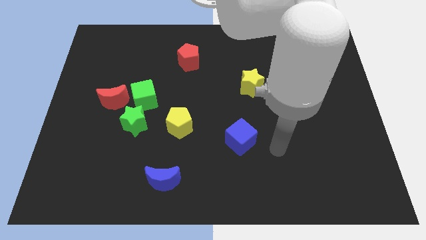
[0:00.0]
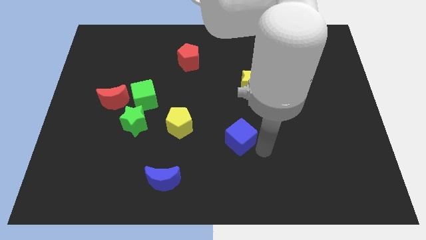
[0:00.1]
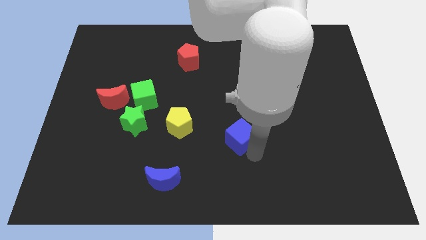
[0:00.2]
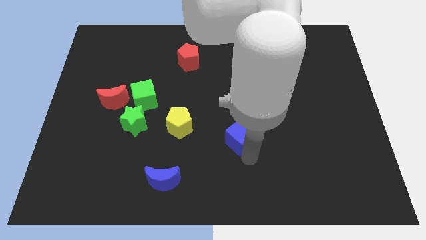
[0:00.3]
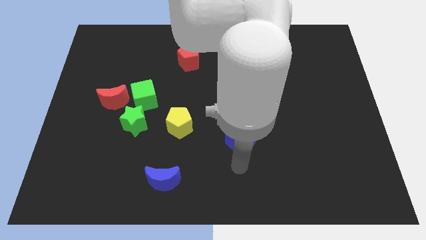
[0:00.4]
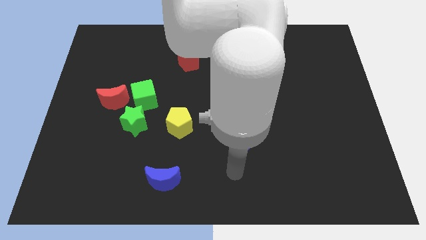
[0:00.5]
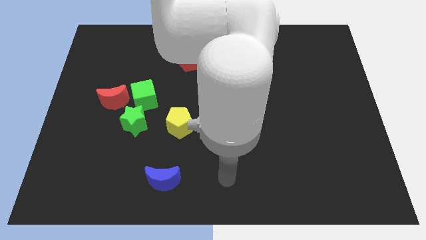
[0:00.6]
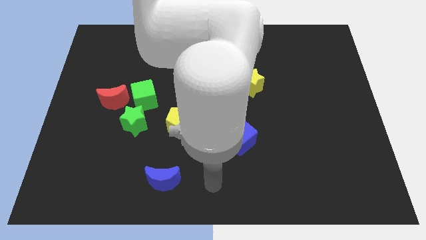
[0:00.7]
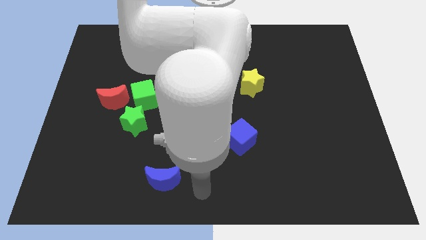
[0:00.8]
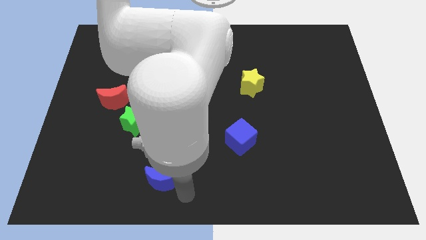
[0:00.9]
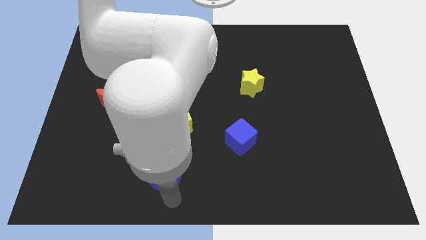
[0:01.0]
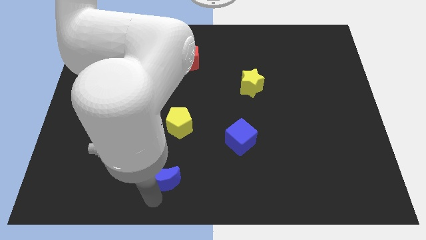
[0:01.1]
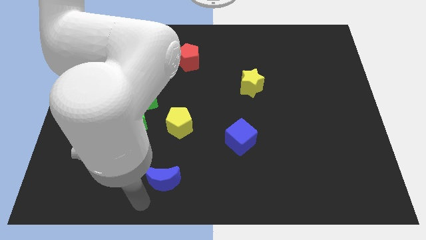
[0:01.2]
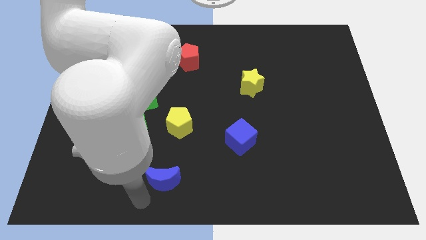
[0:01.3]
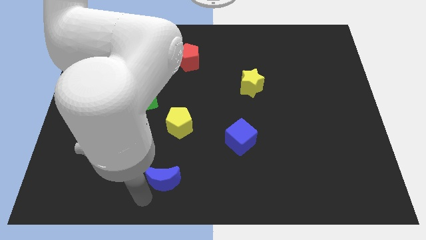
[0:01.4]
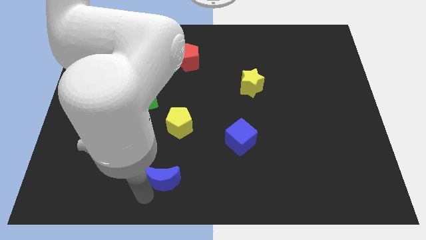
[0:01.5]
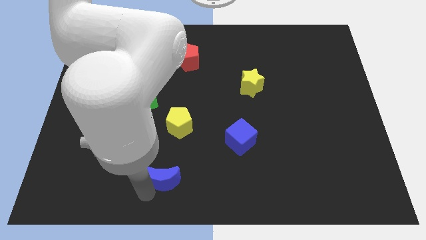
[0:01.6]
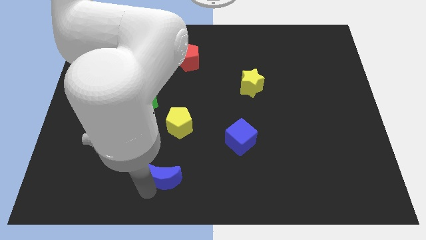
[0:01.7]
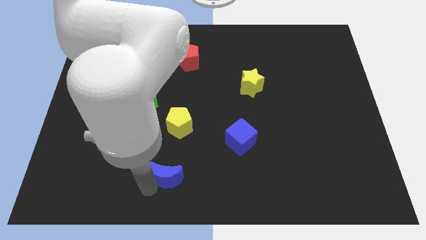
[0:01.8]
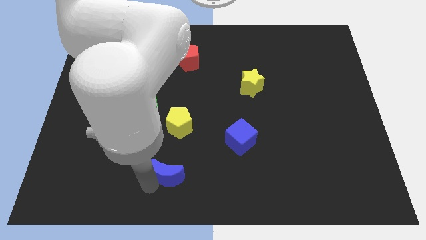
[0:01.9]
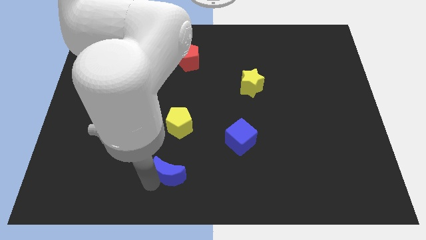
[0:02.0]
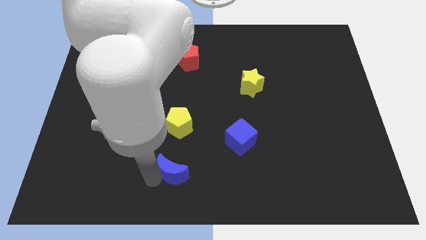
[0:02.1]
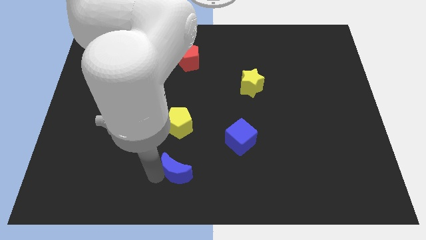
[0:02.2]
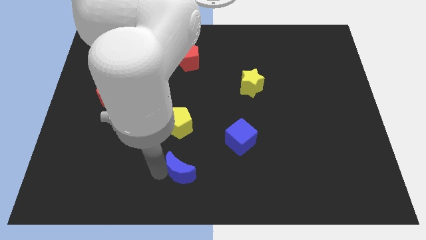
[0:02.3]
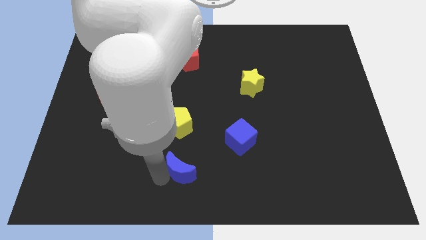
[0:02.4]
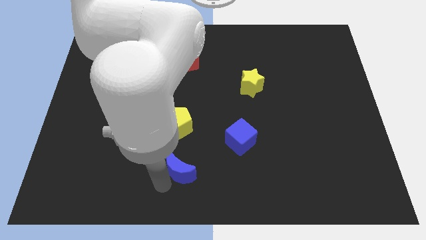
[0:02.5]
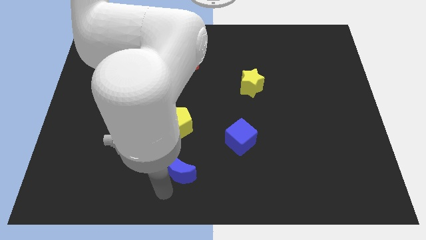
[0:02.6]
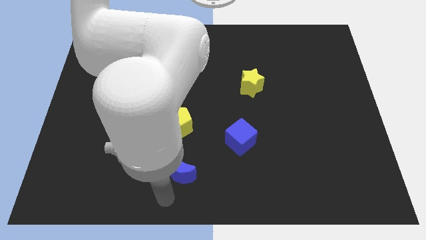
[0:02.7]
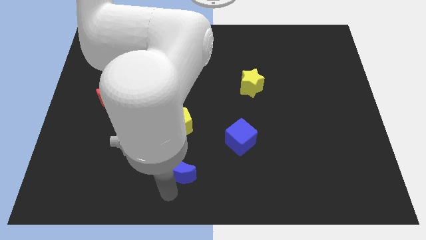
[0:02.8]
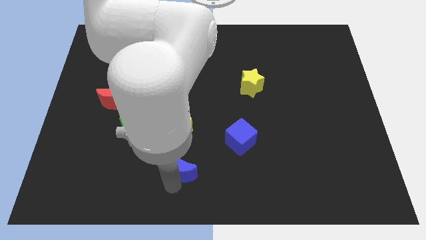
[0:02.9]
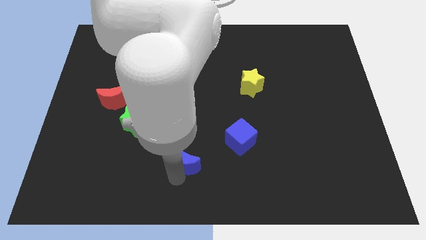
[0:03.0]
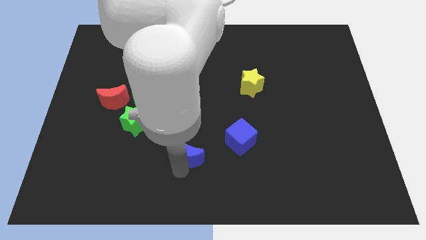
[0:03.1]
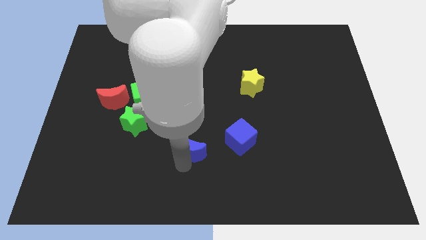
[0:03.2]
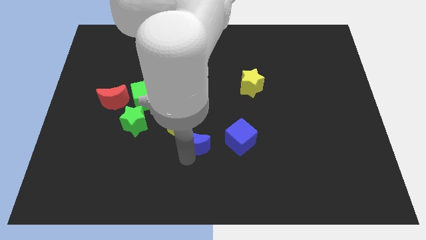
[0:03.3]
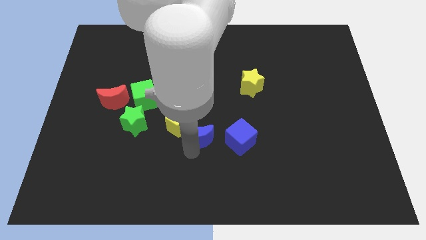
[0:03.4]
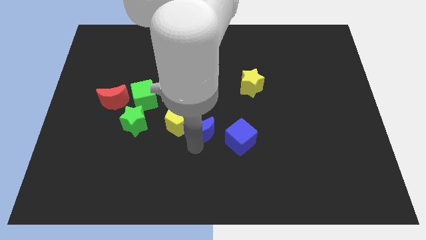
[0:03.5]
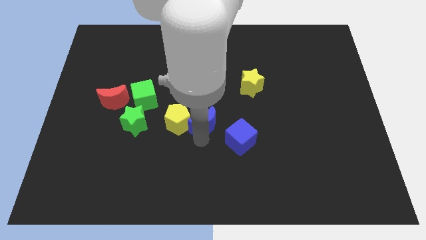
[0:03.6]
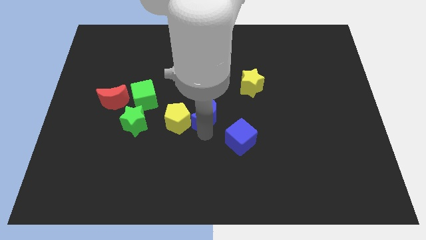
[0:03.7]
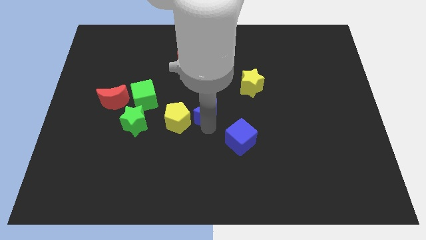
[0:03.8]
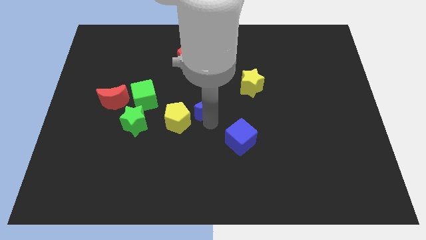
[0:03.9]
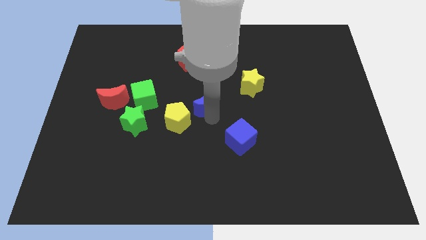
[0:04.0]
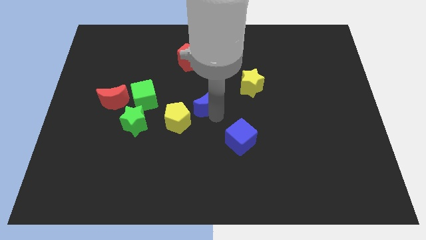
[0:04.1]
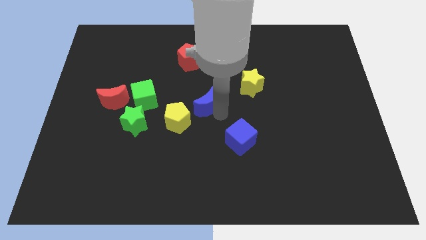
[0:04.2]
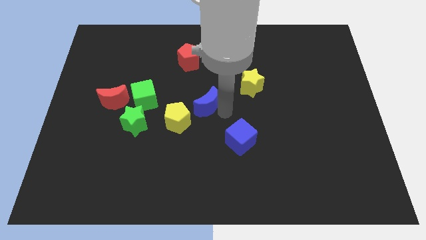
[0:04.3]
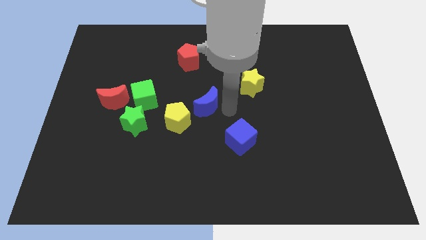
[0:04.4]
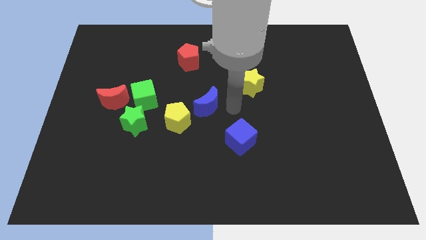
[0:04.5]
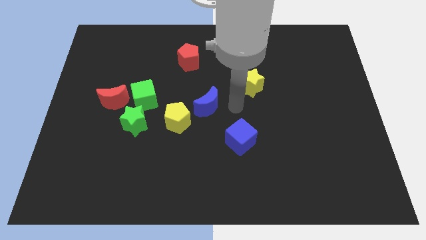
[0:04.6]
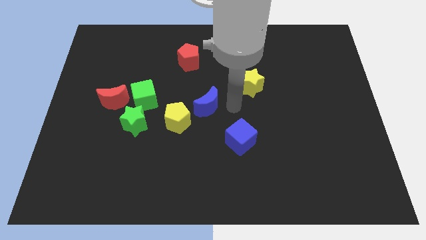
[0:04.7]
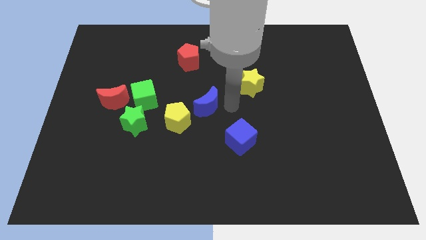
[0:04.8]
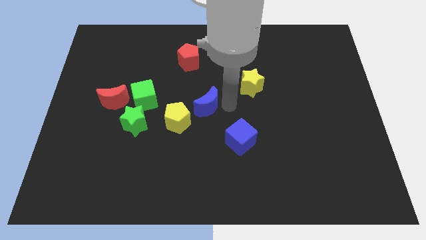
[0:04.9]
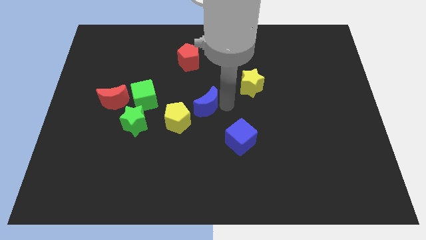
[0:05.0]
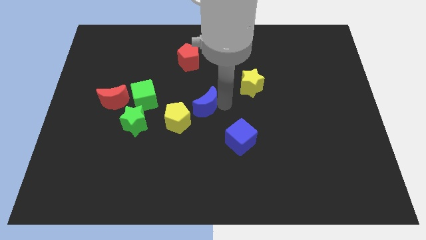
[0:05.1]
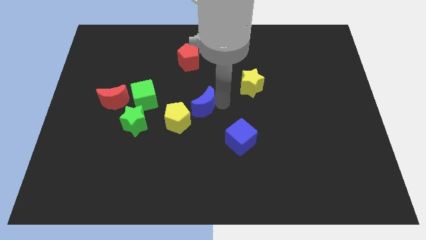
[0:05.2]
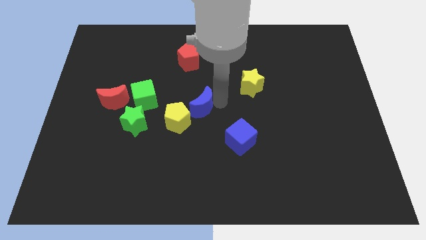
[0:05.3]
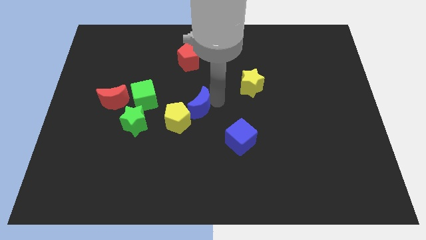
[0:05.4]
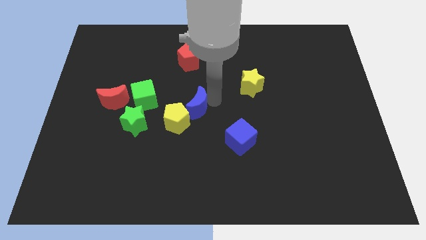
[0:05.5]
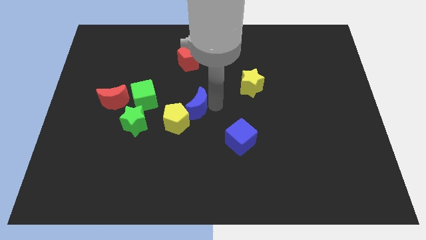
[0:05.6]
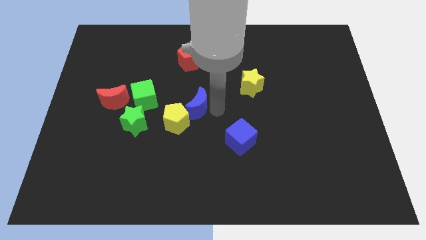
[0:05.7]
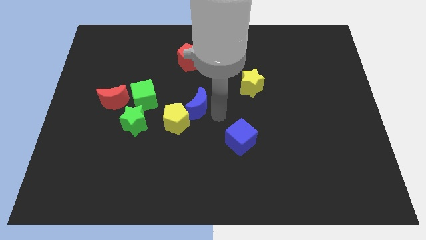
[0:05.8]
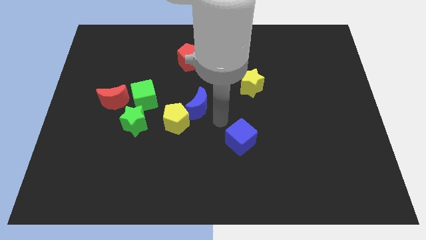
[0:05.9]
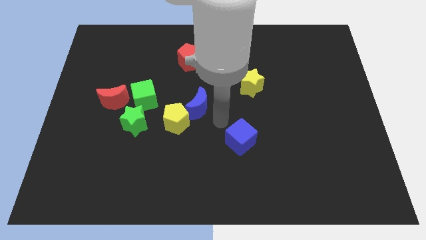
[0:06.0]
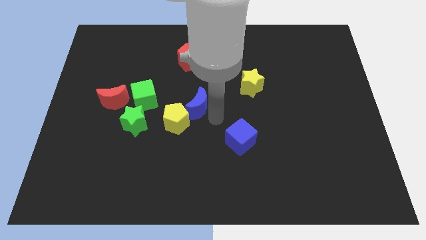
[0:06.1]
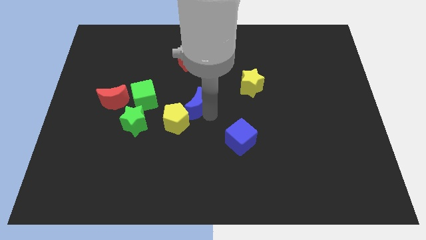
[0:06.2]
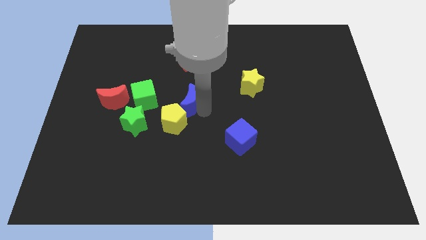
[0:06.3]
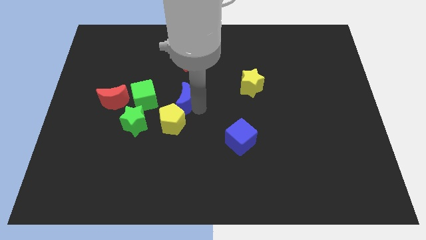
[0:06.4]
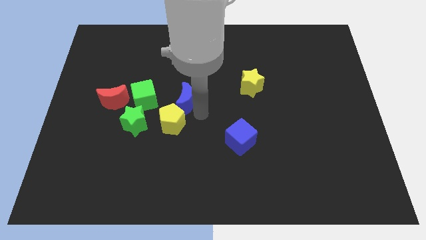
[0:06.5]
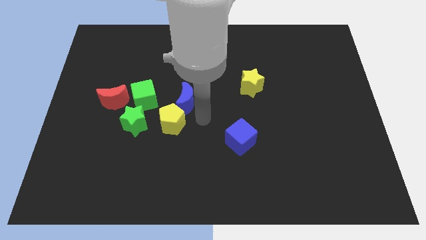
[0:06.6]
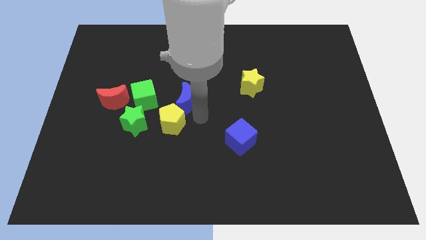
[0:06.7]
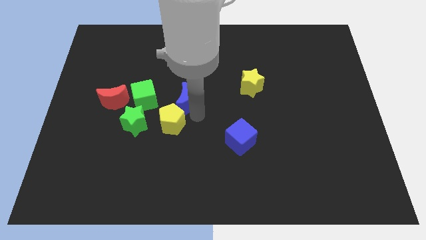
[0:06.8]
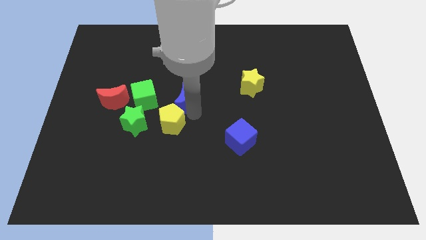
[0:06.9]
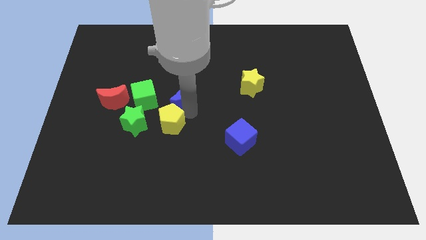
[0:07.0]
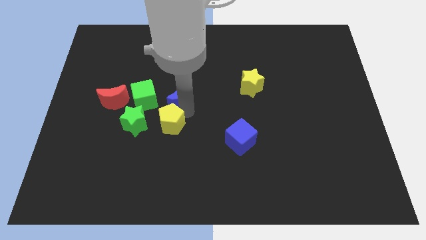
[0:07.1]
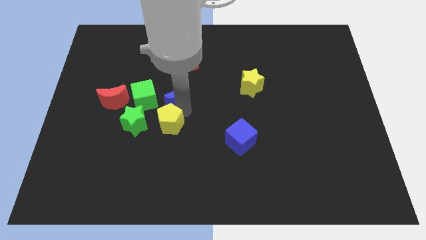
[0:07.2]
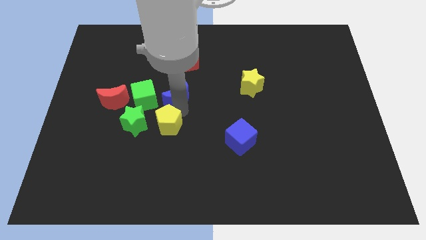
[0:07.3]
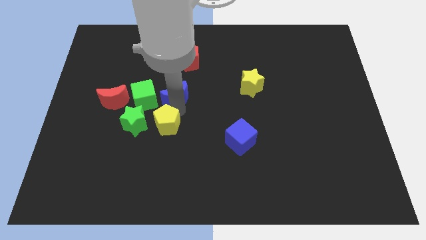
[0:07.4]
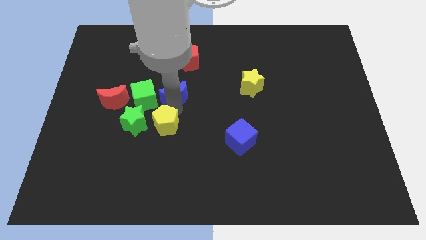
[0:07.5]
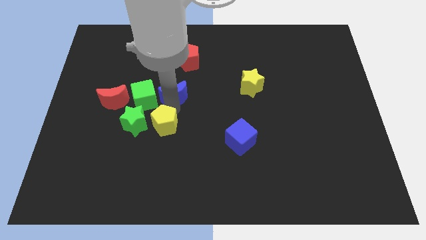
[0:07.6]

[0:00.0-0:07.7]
put the blue moon to the top right of the green cube
